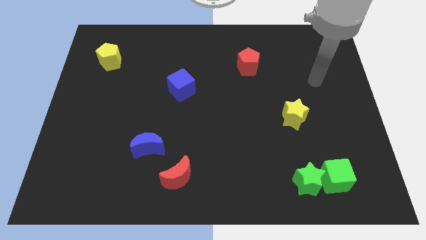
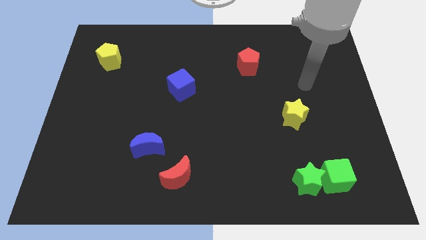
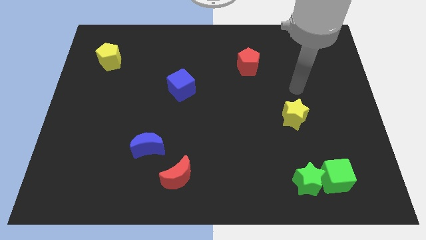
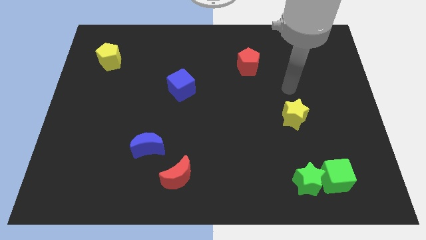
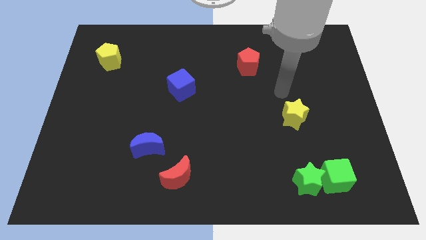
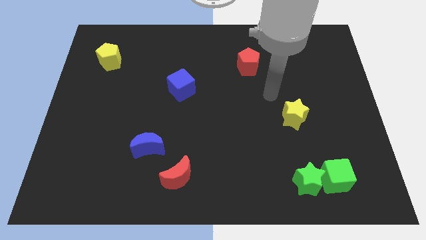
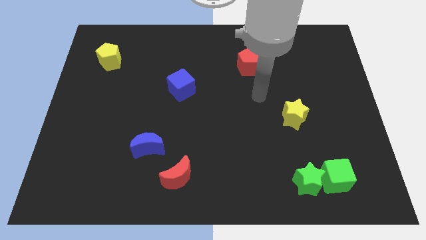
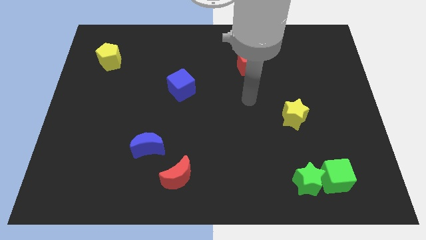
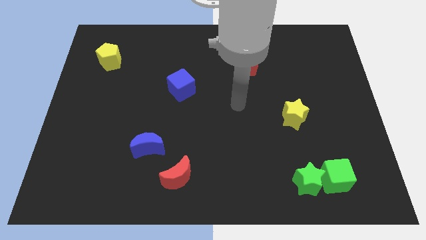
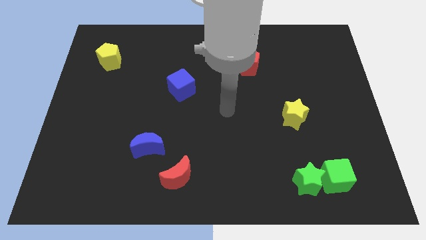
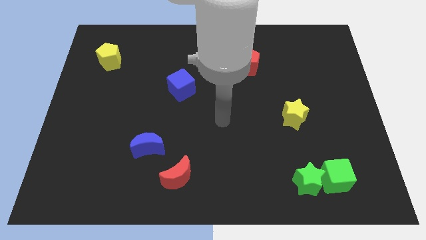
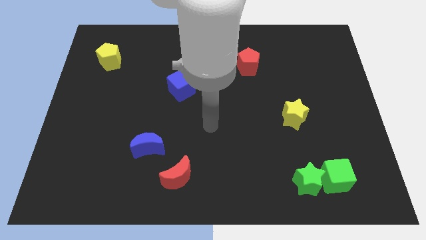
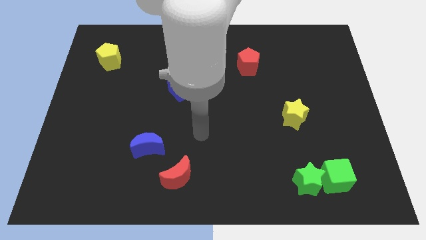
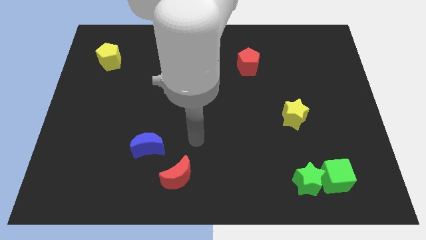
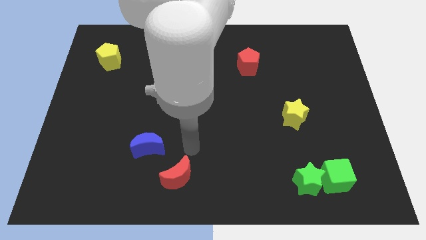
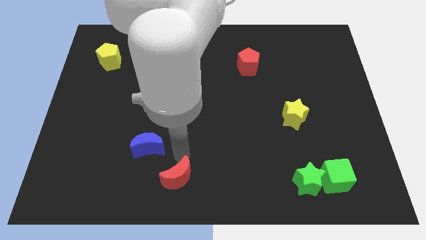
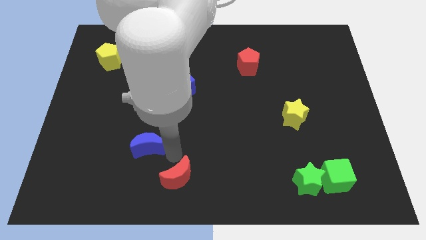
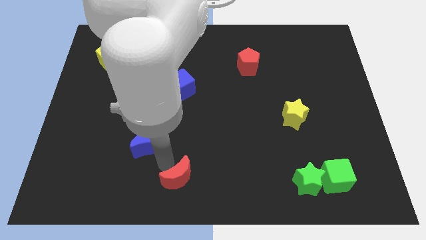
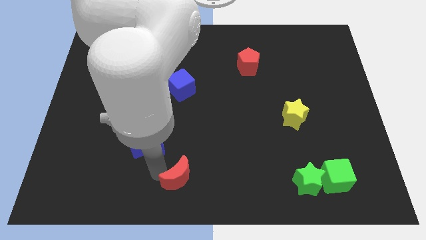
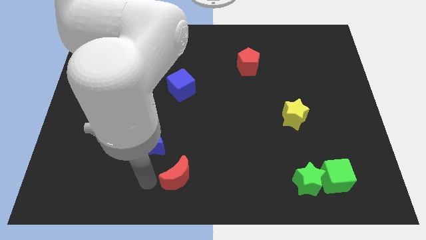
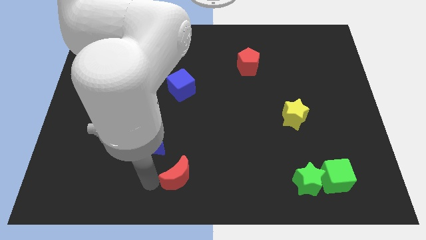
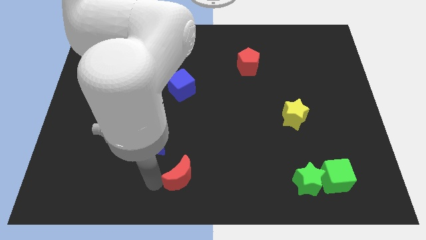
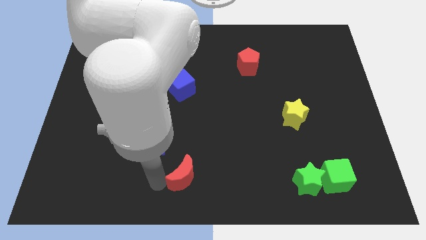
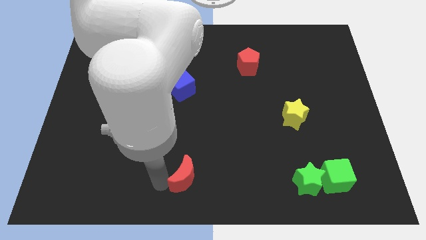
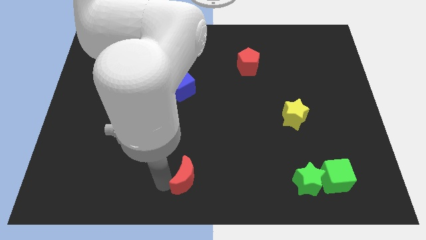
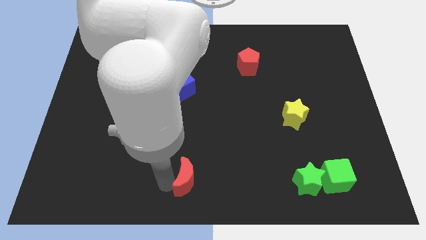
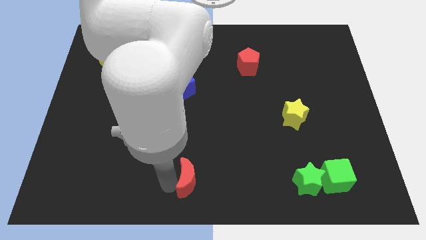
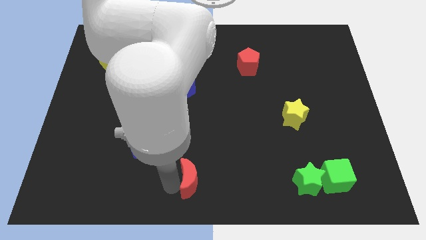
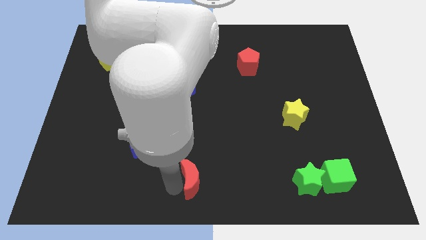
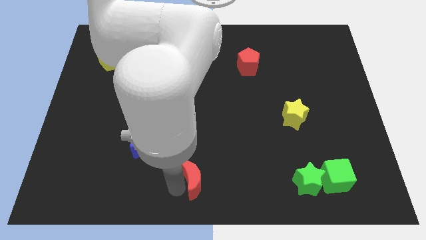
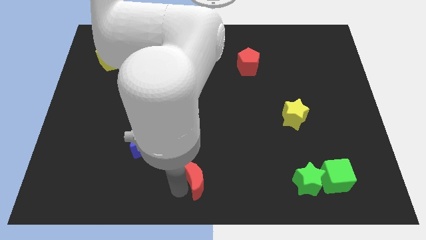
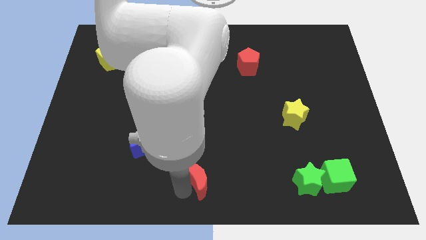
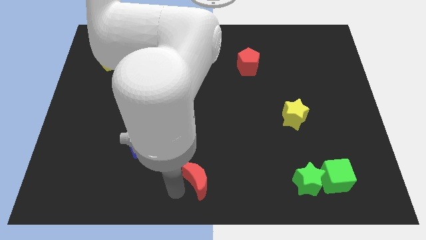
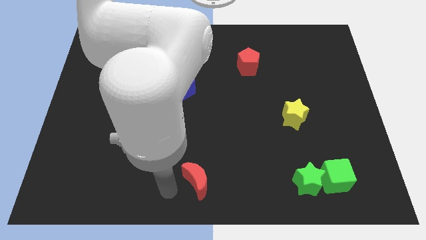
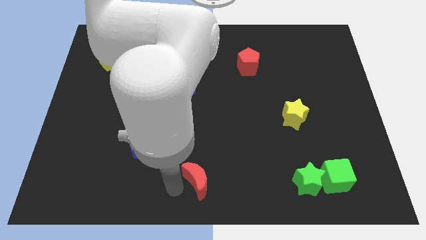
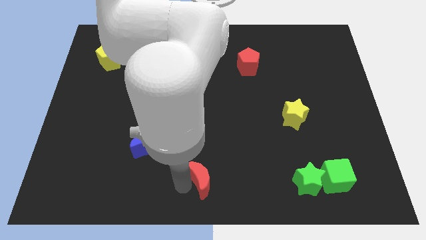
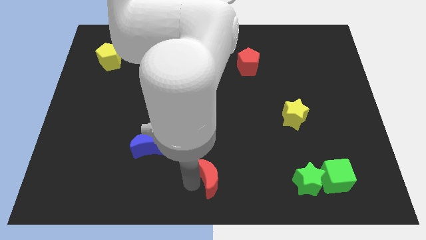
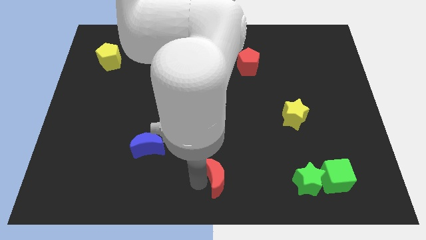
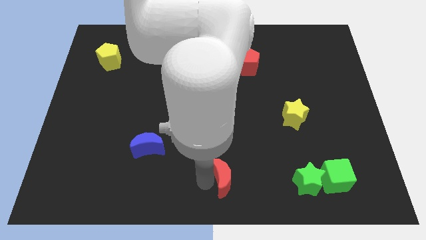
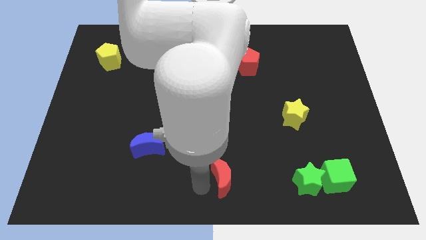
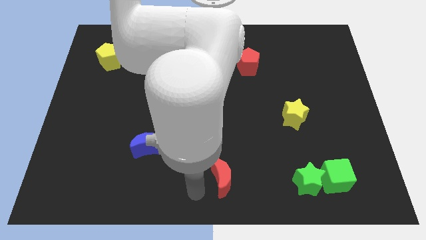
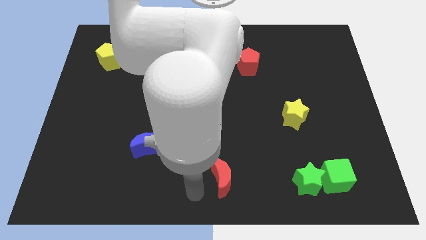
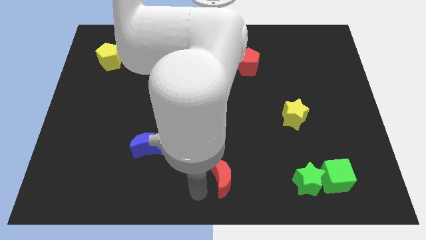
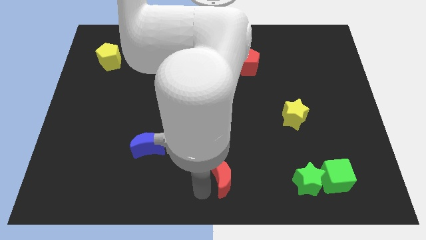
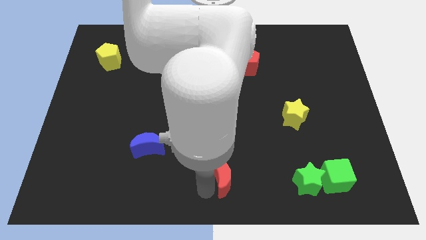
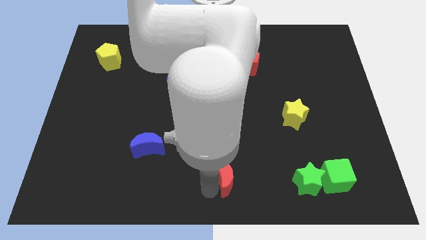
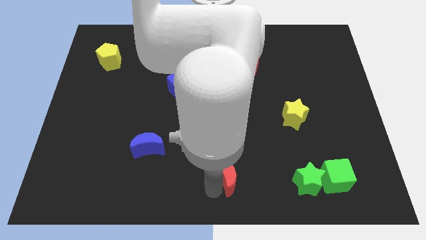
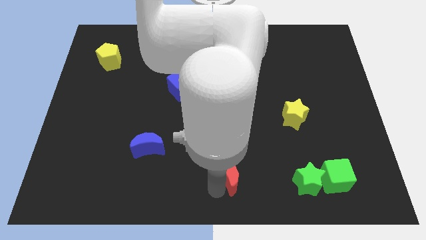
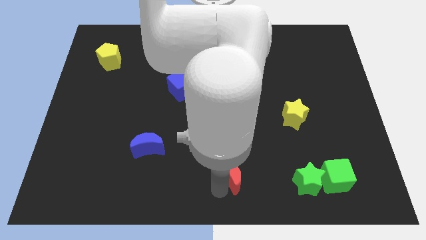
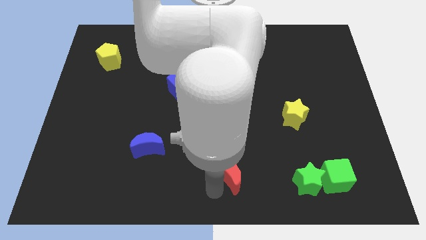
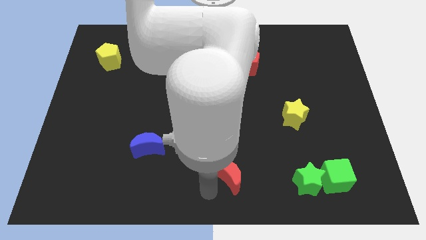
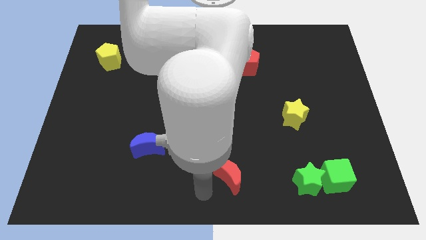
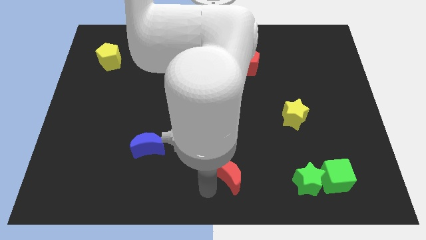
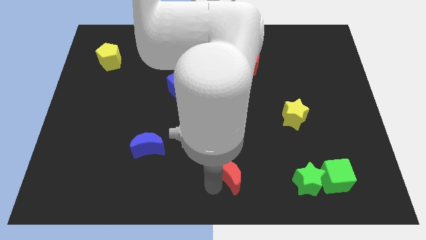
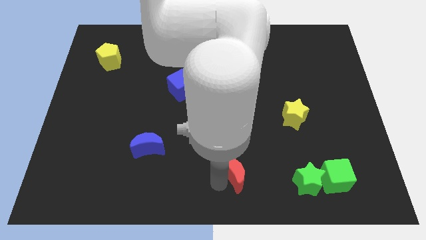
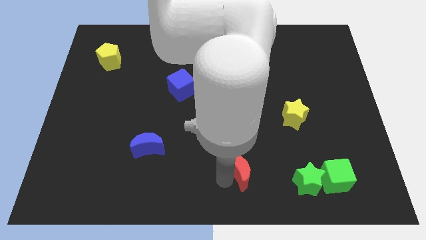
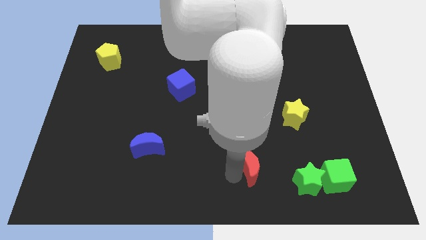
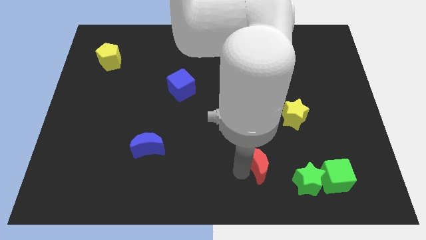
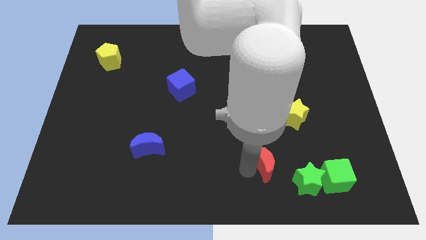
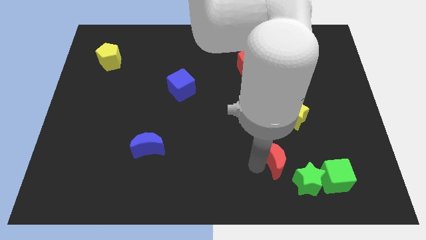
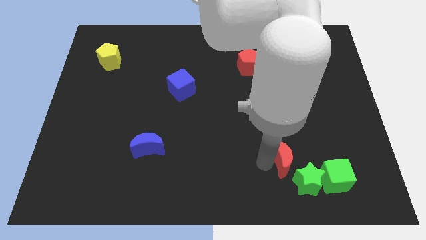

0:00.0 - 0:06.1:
move the red moon to the bottom of the yellow star

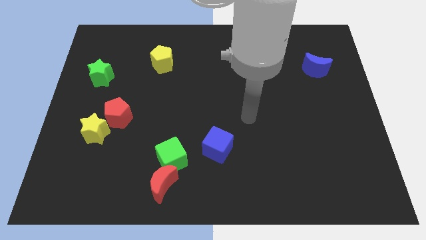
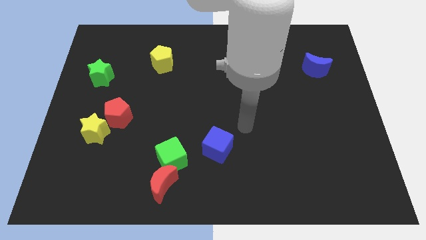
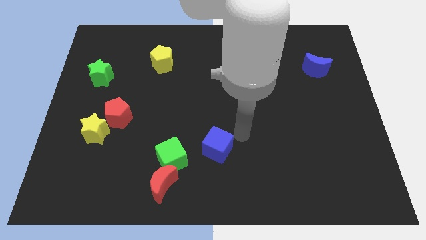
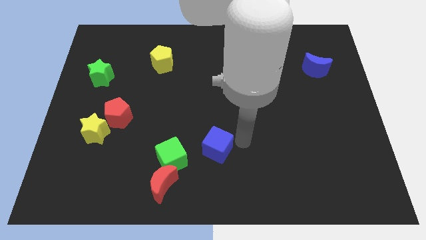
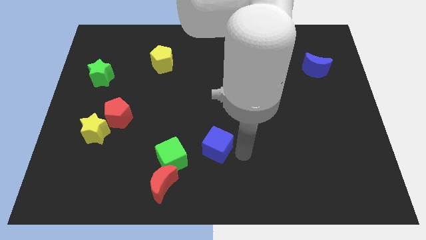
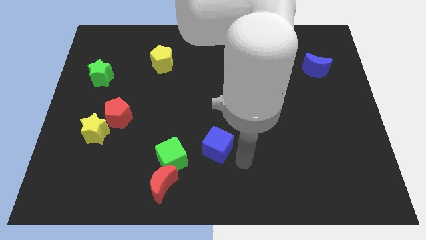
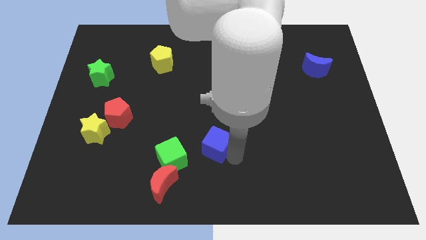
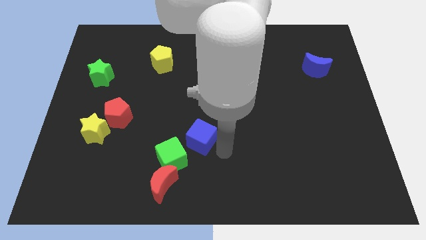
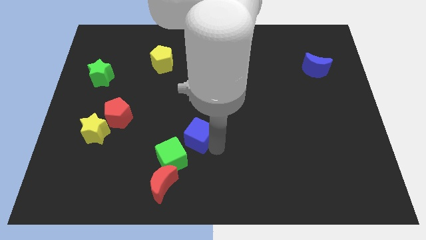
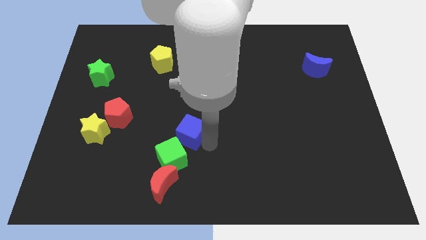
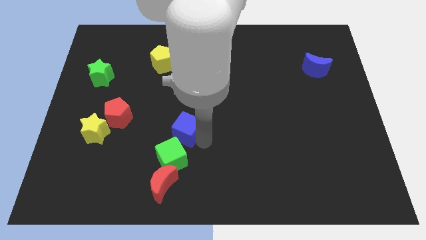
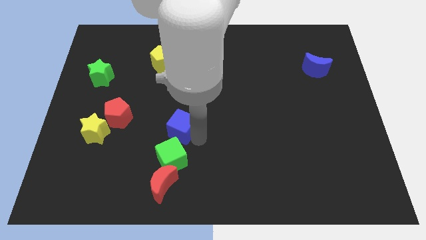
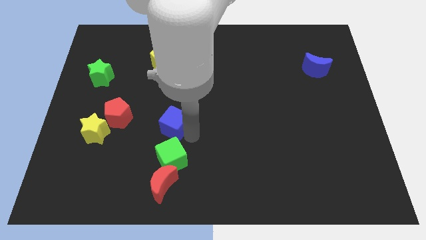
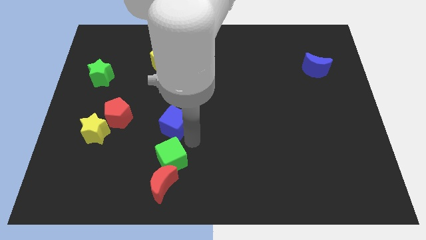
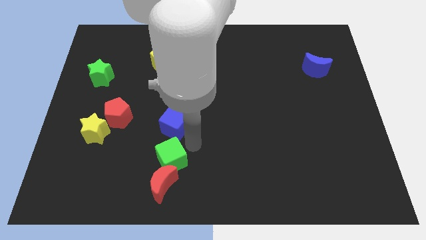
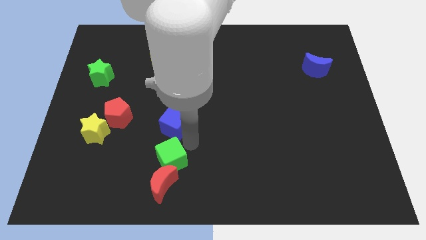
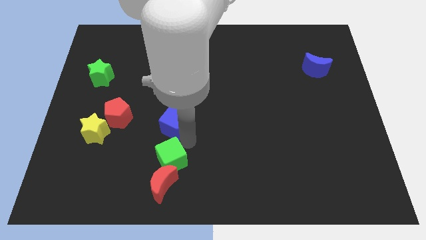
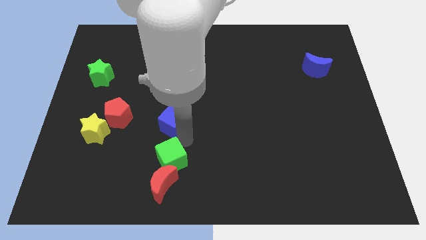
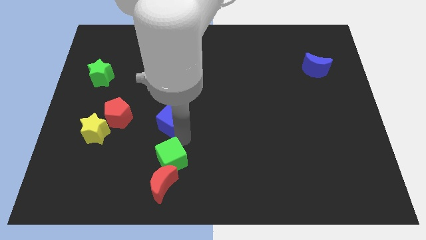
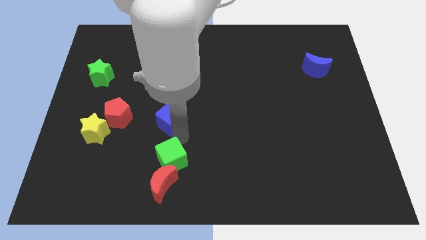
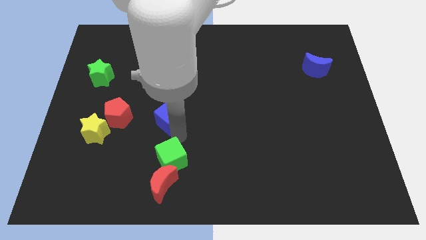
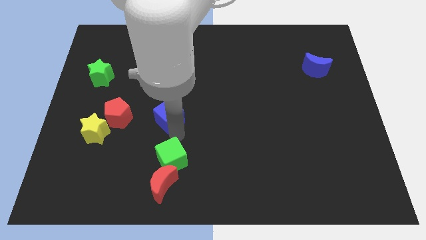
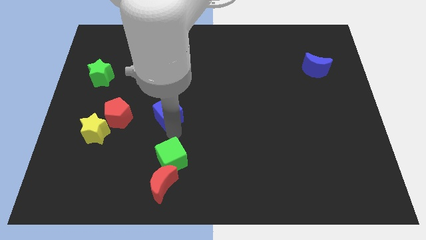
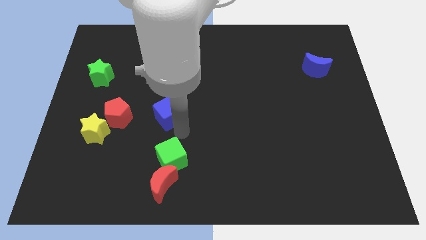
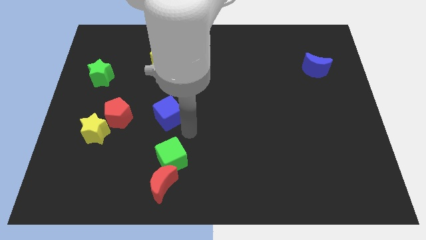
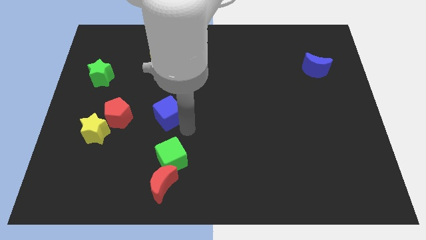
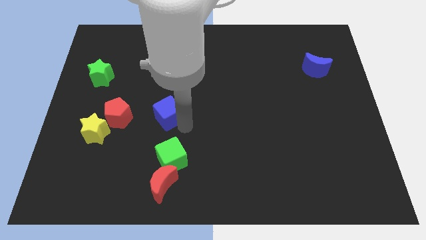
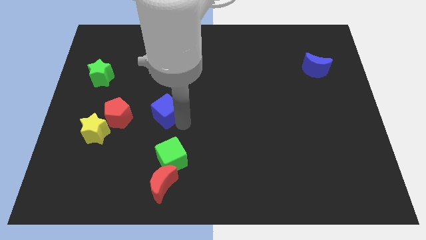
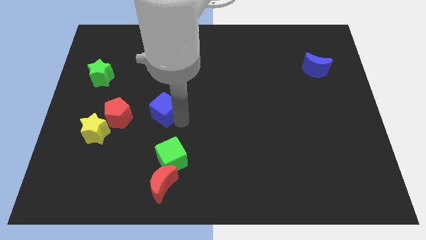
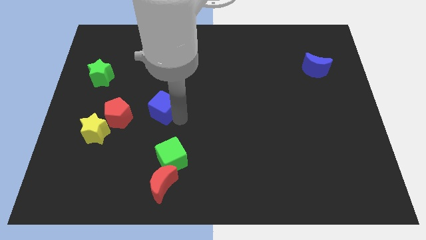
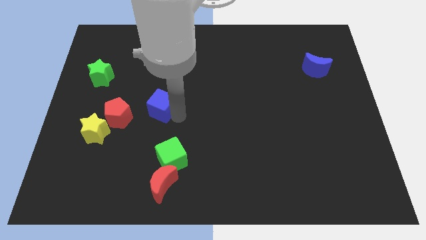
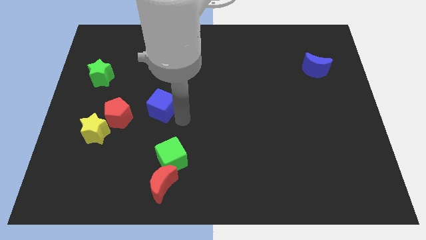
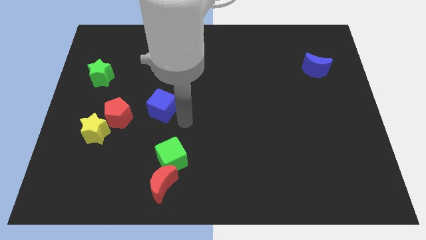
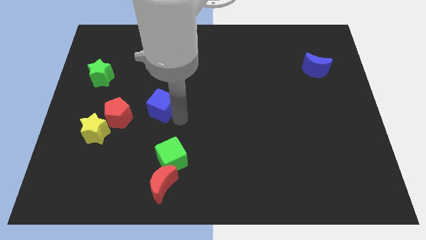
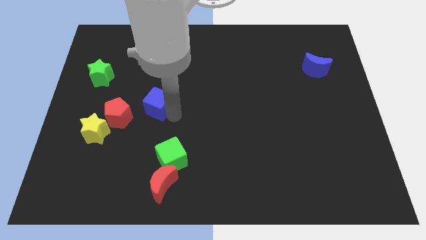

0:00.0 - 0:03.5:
put the blue cube to the top right side of the red pentagon
